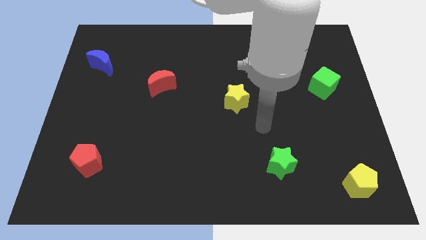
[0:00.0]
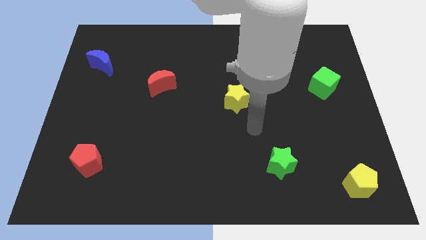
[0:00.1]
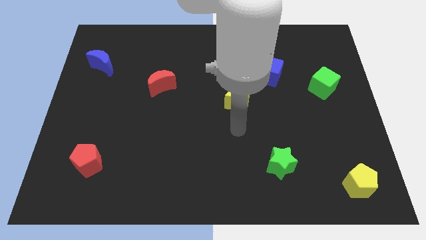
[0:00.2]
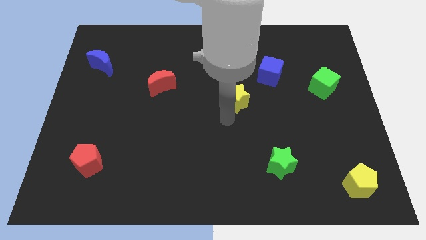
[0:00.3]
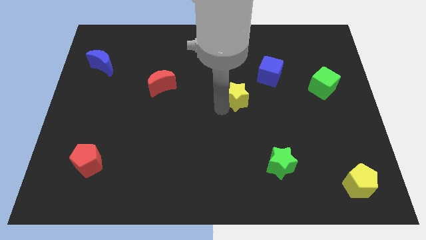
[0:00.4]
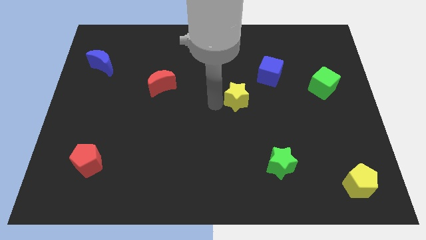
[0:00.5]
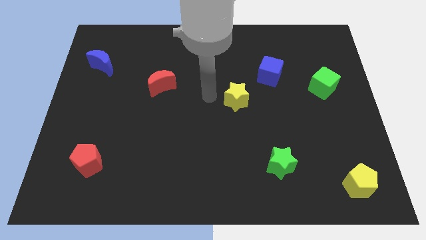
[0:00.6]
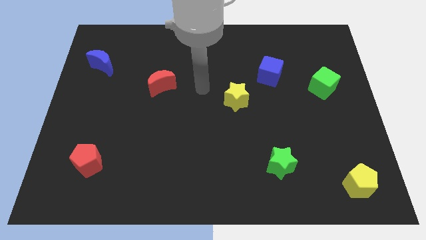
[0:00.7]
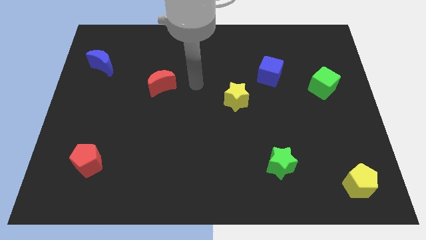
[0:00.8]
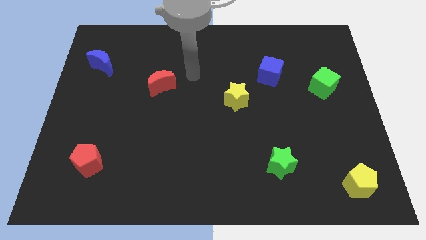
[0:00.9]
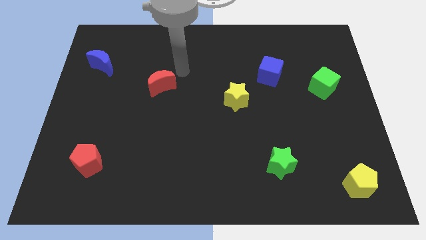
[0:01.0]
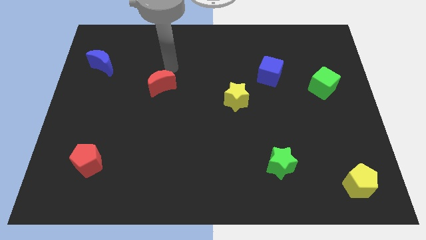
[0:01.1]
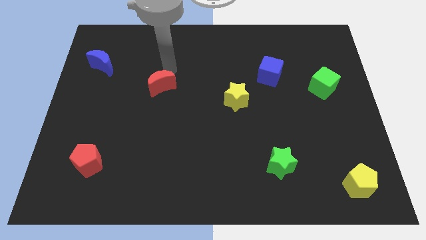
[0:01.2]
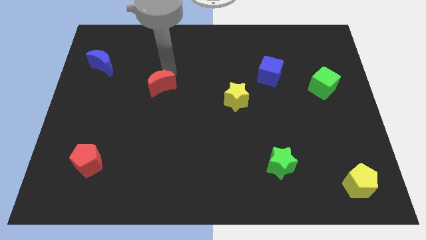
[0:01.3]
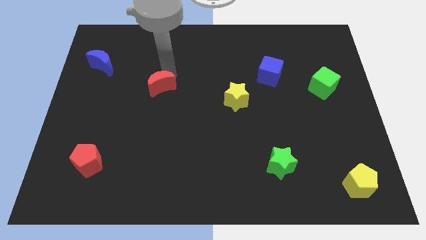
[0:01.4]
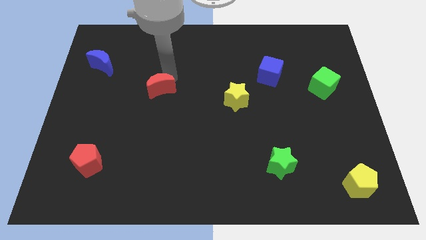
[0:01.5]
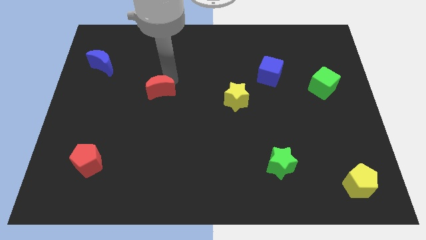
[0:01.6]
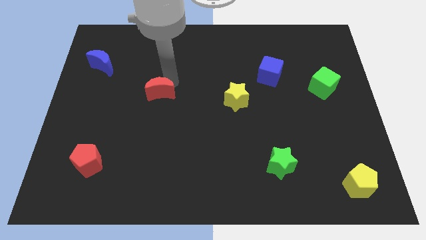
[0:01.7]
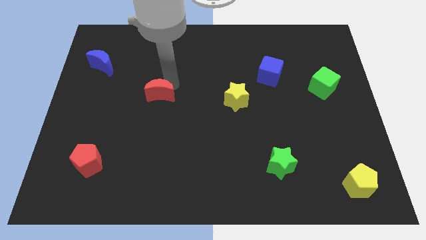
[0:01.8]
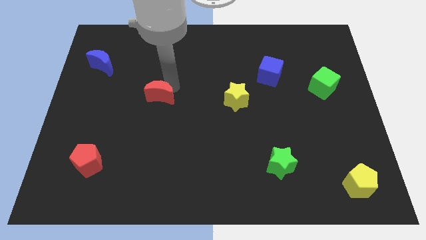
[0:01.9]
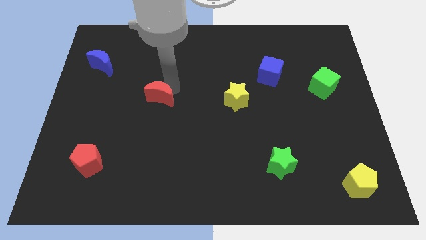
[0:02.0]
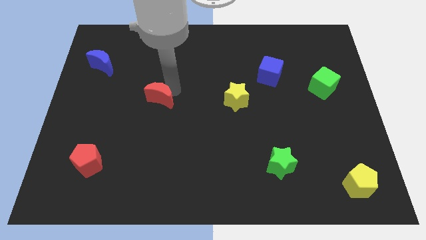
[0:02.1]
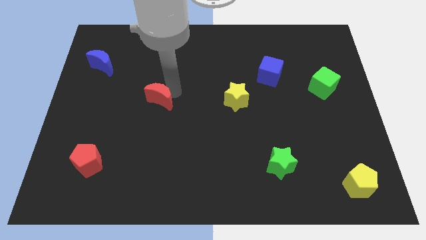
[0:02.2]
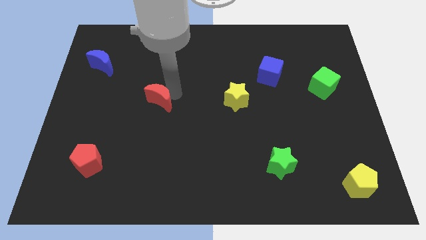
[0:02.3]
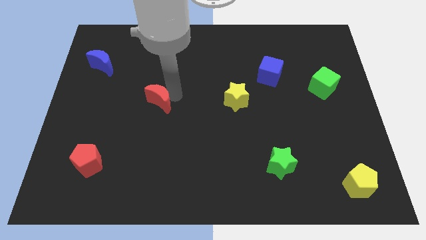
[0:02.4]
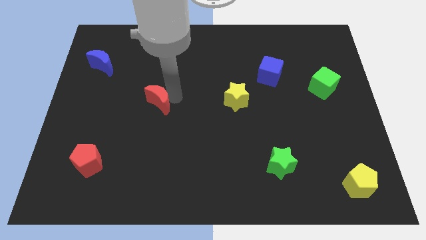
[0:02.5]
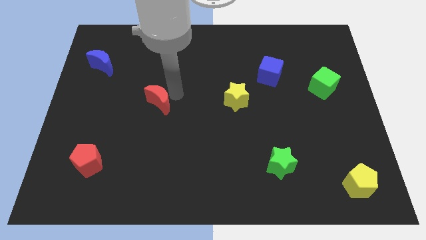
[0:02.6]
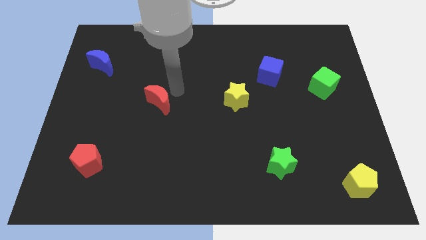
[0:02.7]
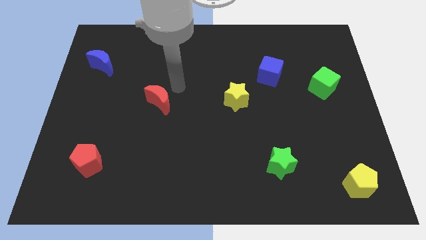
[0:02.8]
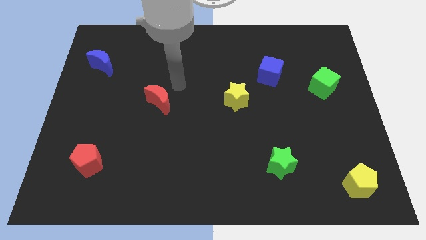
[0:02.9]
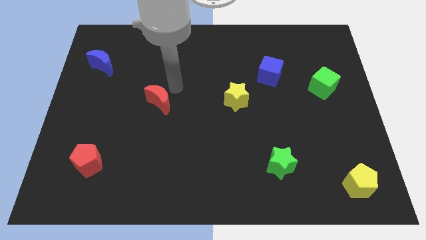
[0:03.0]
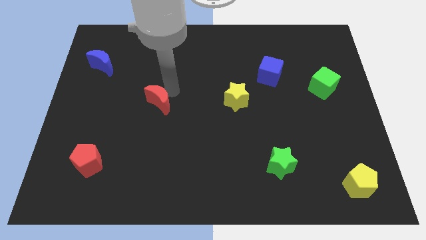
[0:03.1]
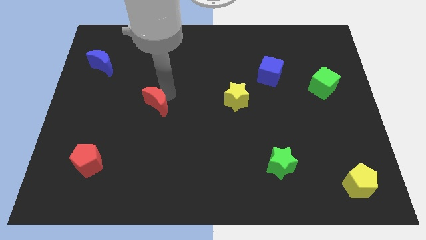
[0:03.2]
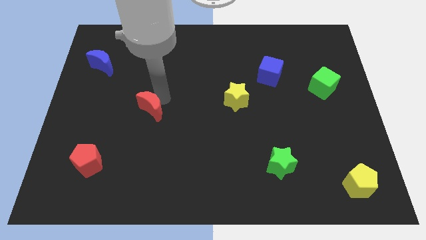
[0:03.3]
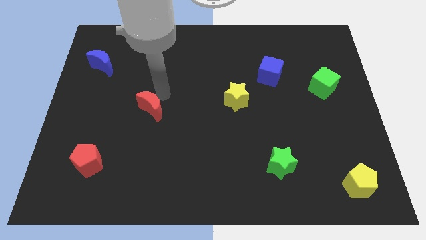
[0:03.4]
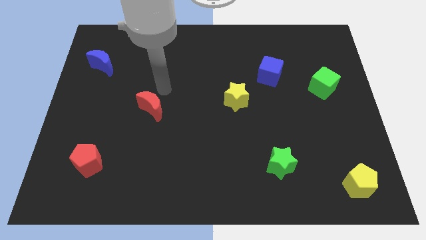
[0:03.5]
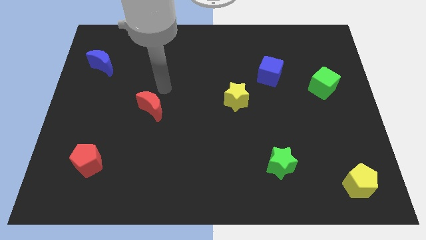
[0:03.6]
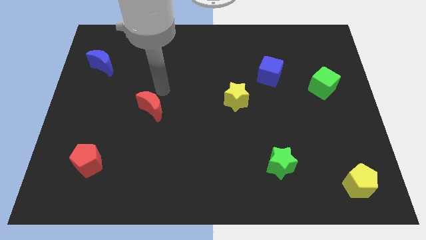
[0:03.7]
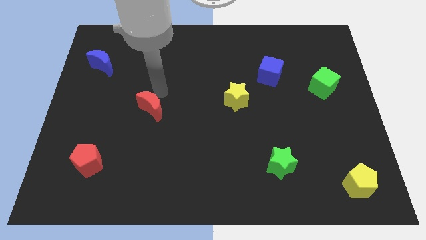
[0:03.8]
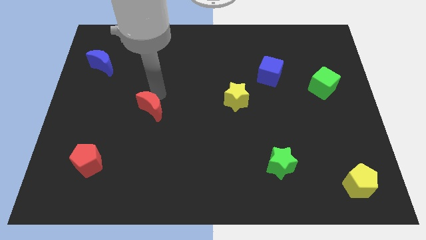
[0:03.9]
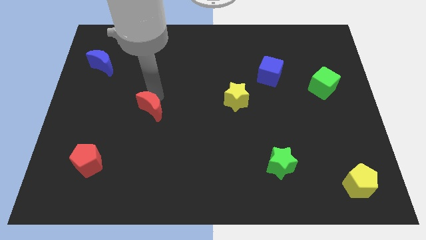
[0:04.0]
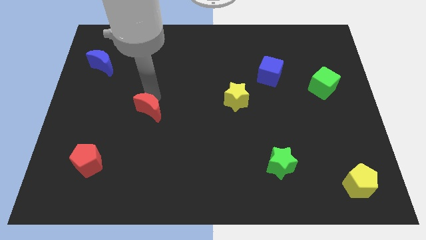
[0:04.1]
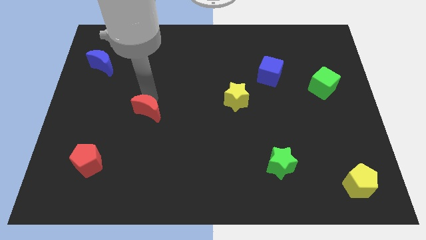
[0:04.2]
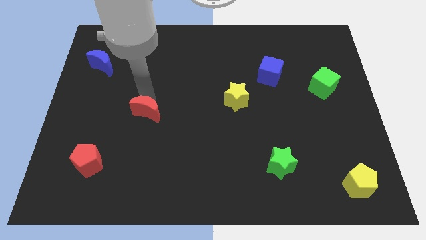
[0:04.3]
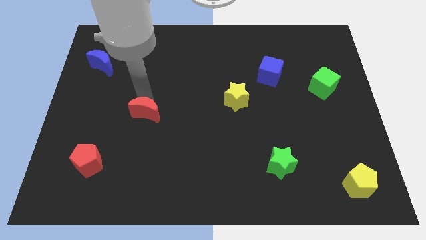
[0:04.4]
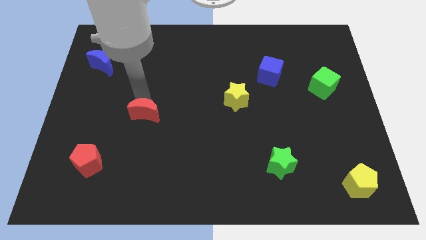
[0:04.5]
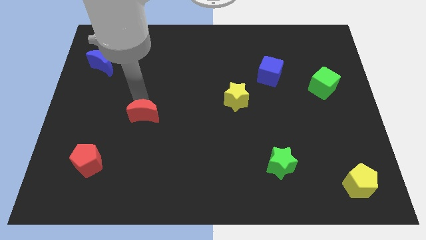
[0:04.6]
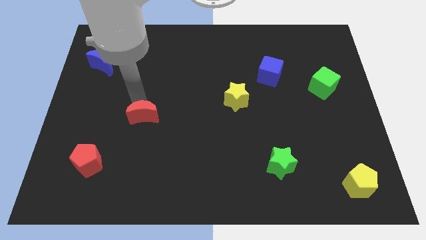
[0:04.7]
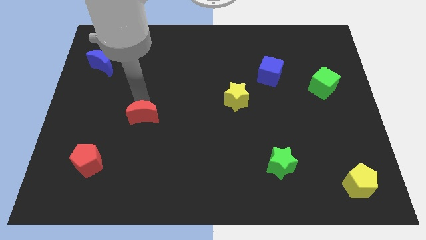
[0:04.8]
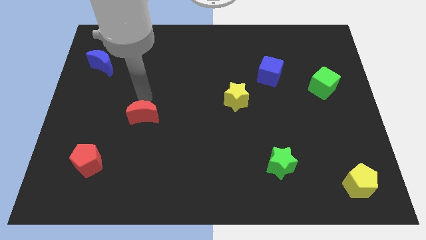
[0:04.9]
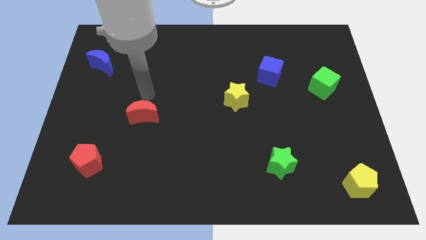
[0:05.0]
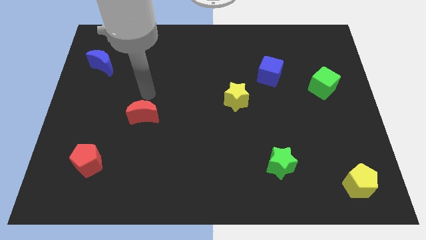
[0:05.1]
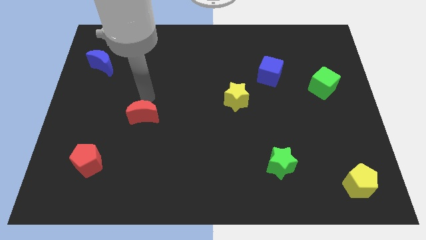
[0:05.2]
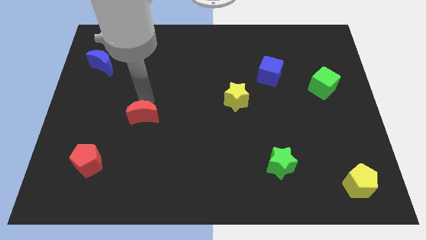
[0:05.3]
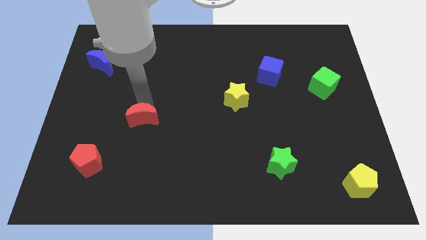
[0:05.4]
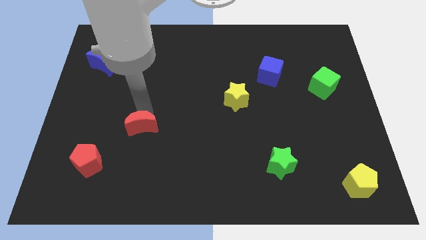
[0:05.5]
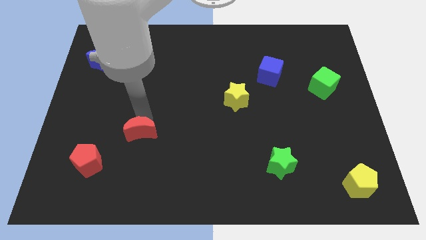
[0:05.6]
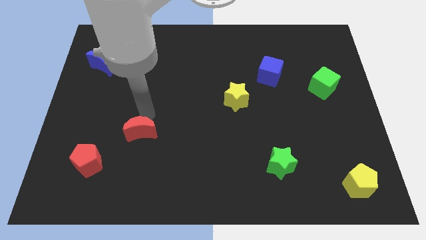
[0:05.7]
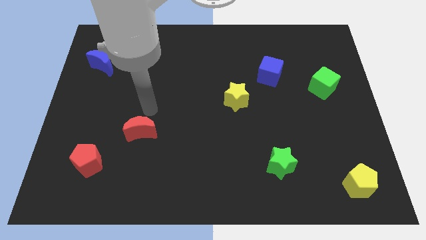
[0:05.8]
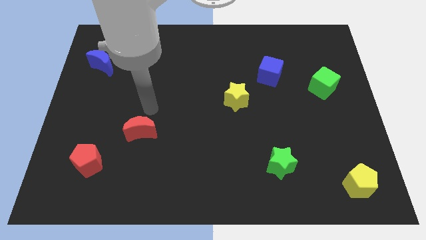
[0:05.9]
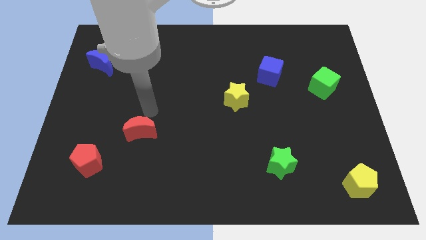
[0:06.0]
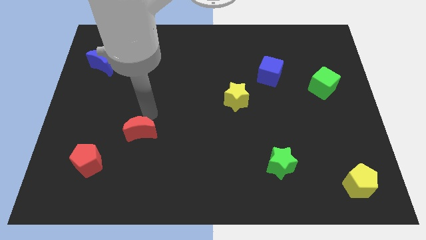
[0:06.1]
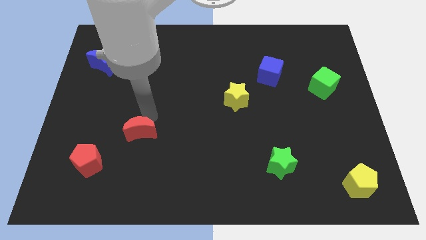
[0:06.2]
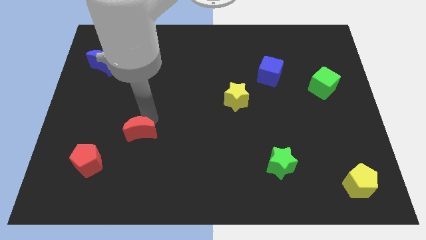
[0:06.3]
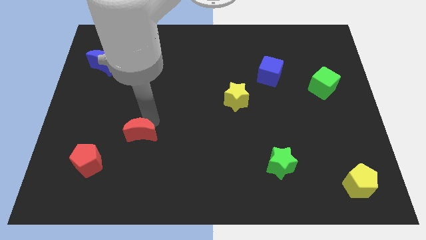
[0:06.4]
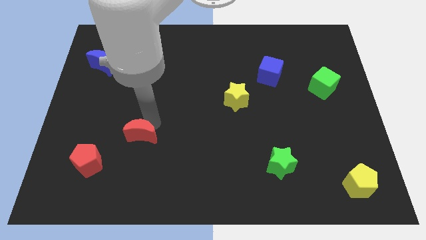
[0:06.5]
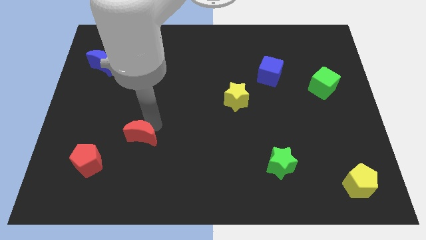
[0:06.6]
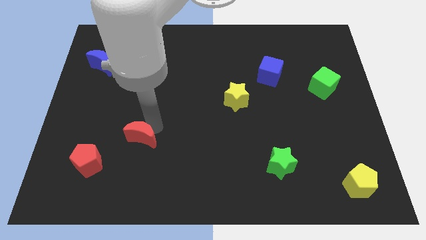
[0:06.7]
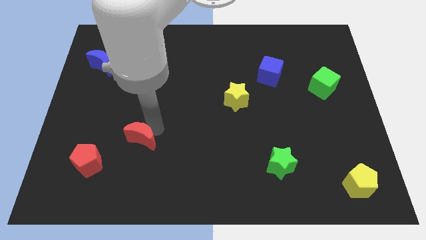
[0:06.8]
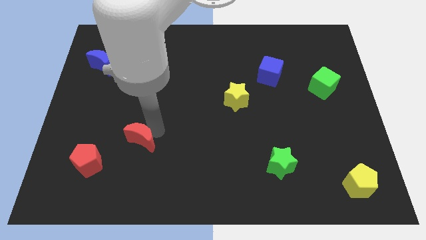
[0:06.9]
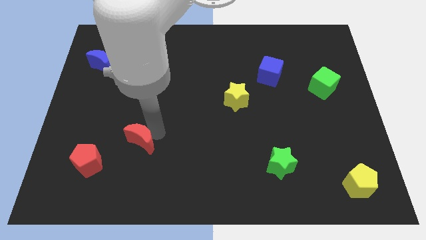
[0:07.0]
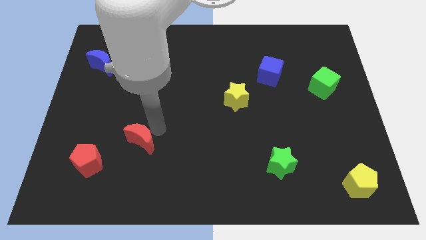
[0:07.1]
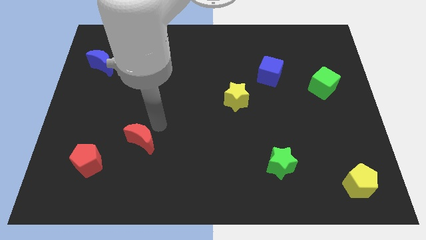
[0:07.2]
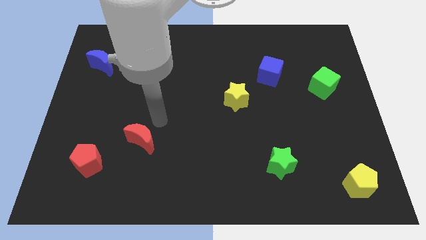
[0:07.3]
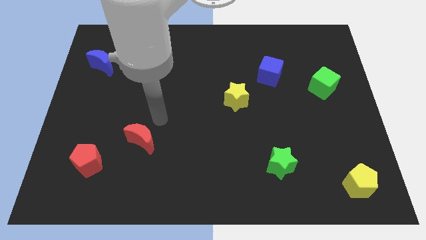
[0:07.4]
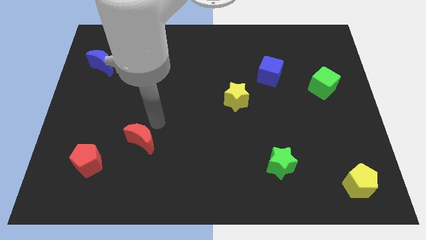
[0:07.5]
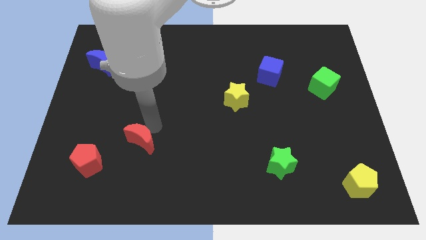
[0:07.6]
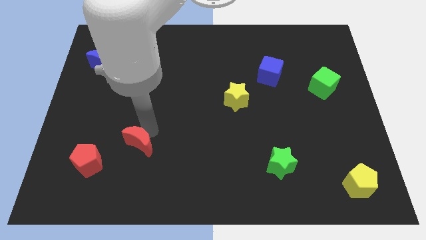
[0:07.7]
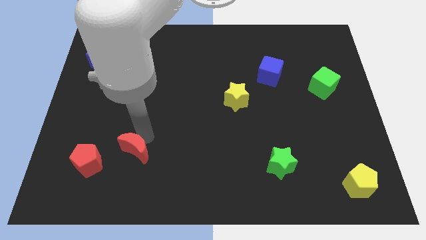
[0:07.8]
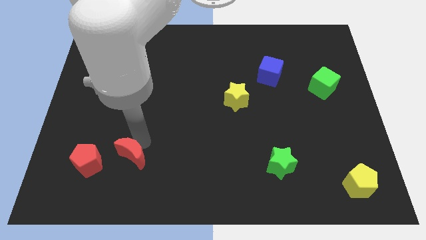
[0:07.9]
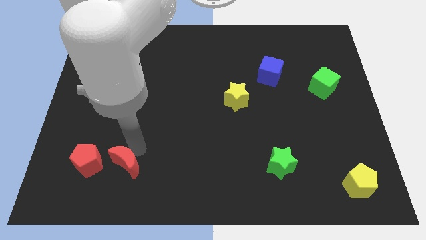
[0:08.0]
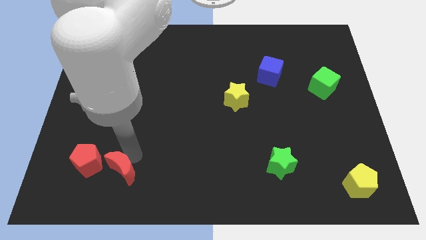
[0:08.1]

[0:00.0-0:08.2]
slide the red moon diagonally down and to the right of the red pentagon
